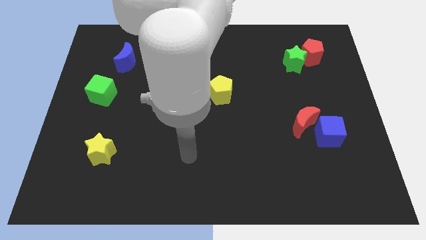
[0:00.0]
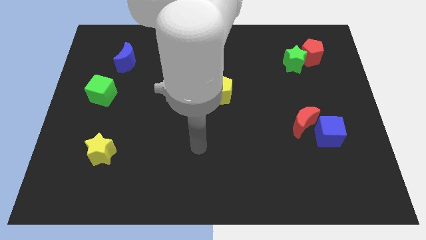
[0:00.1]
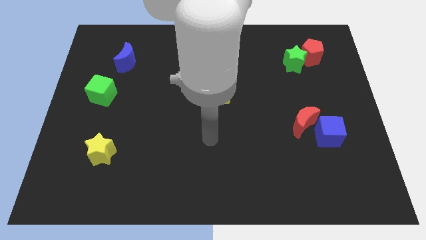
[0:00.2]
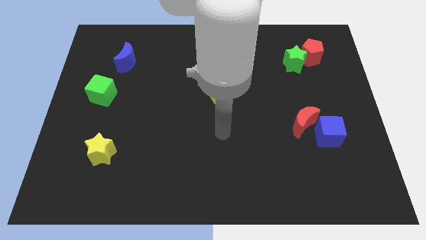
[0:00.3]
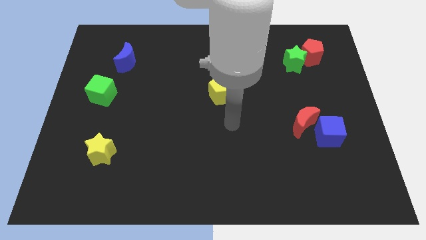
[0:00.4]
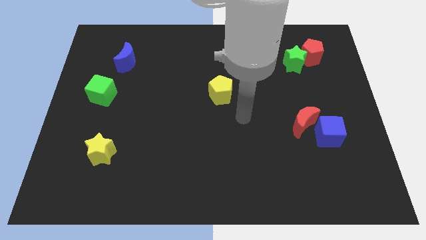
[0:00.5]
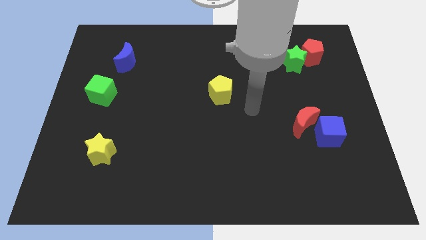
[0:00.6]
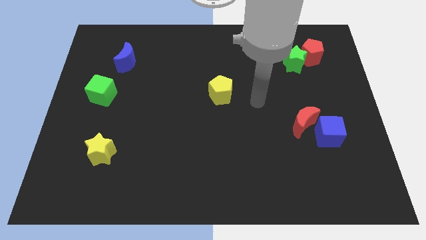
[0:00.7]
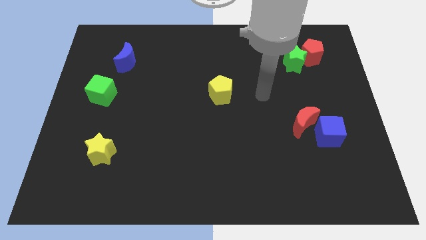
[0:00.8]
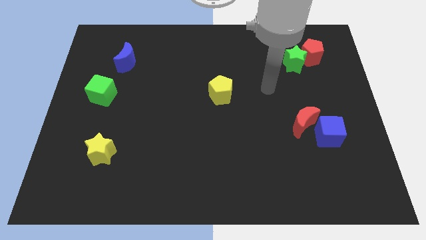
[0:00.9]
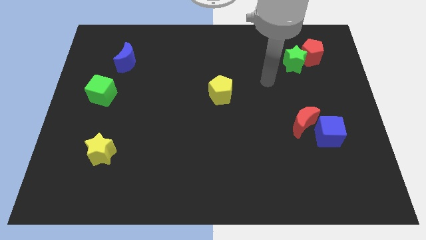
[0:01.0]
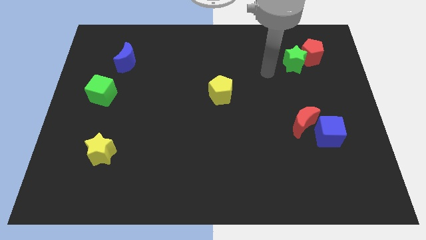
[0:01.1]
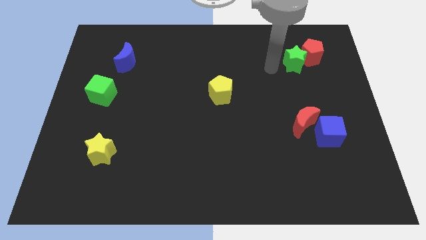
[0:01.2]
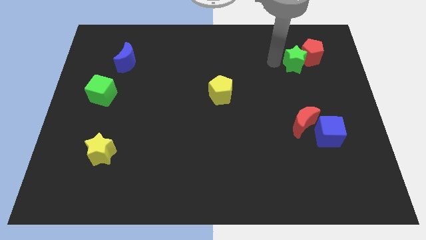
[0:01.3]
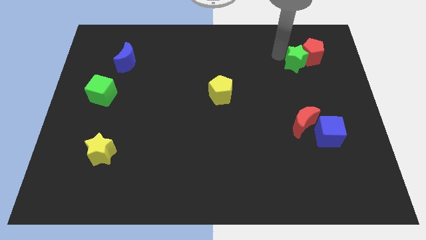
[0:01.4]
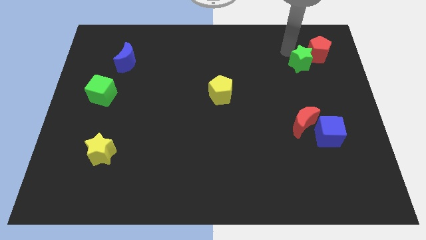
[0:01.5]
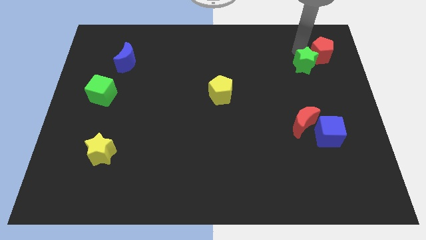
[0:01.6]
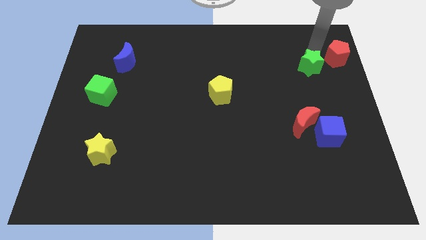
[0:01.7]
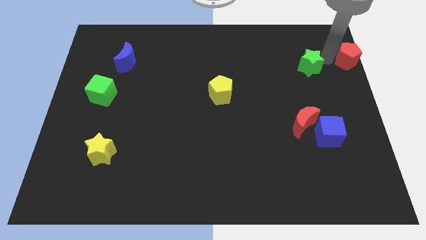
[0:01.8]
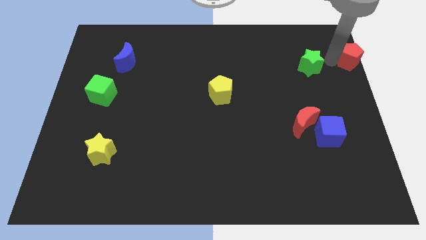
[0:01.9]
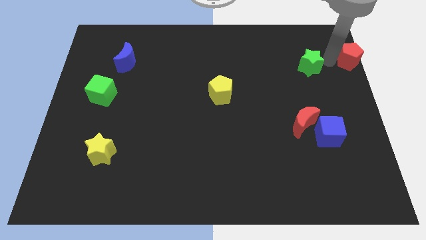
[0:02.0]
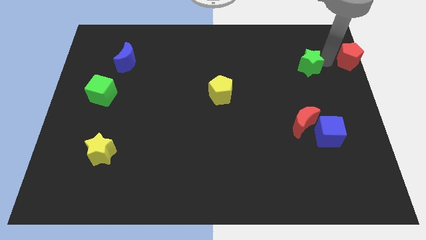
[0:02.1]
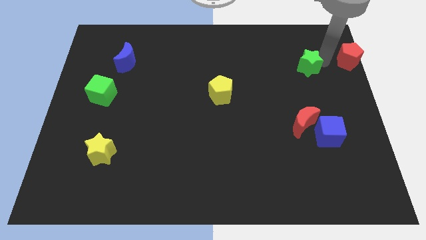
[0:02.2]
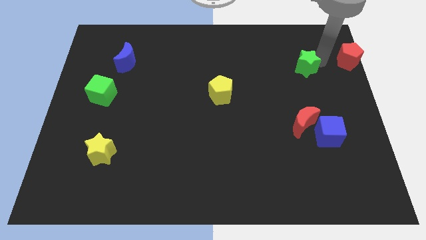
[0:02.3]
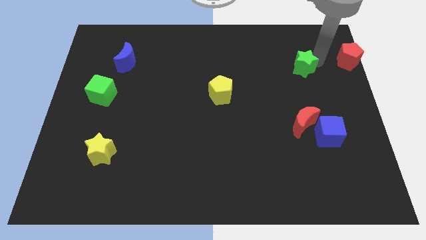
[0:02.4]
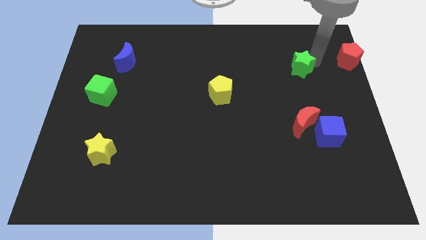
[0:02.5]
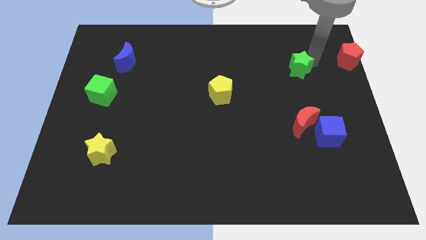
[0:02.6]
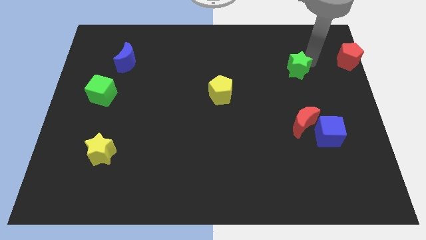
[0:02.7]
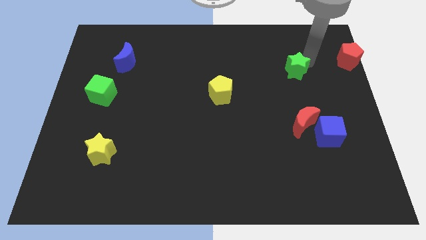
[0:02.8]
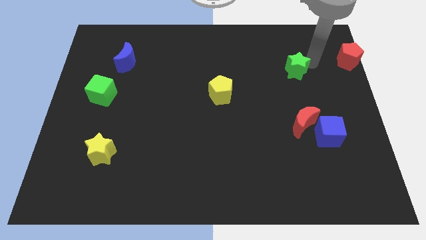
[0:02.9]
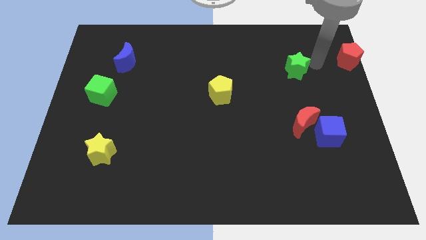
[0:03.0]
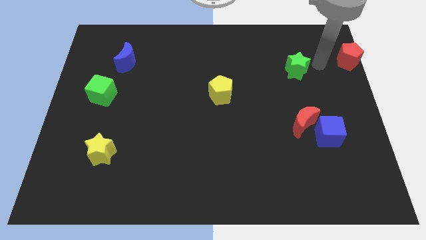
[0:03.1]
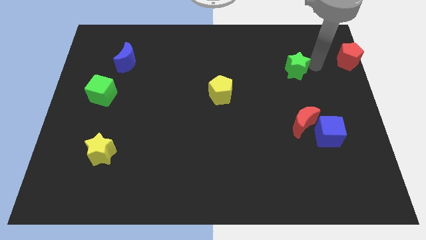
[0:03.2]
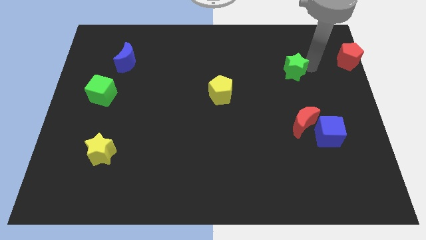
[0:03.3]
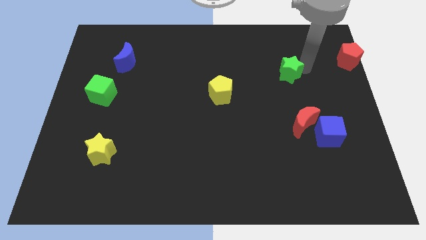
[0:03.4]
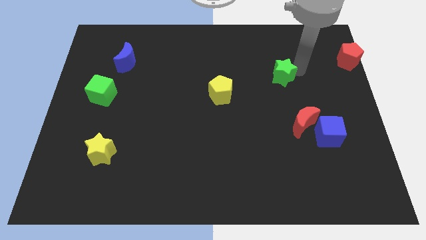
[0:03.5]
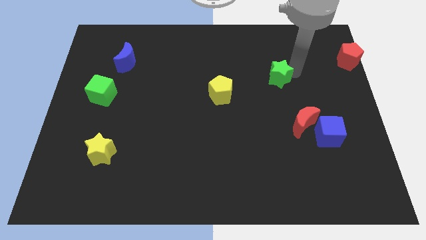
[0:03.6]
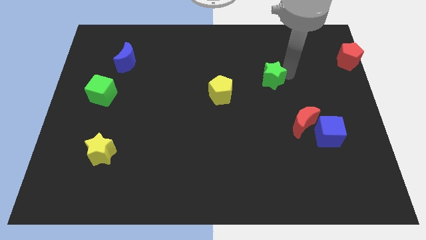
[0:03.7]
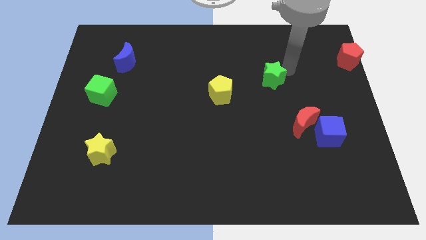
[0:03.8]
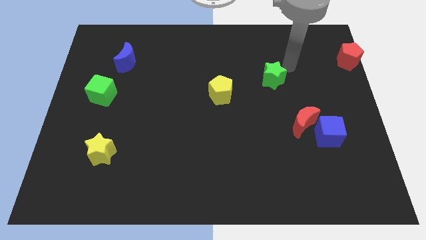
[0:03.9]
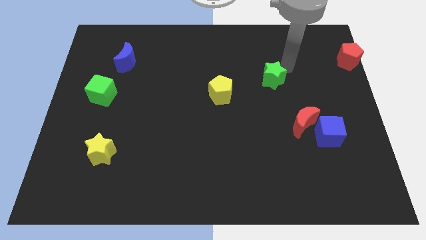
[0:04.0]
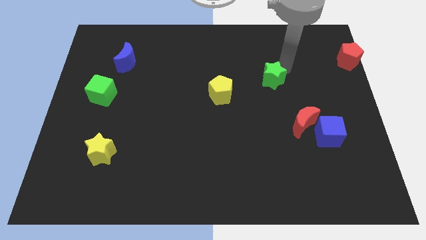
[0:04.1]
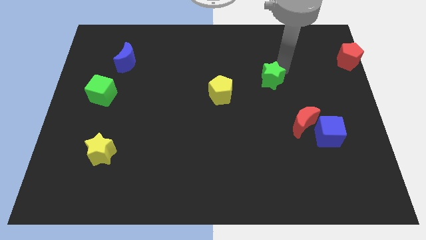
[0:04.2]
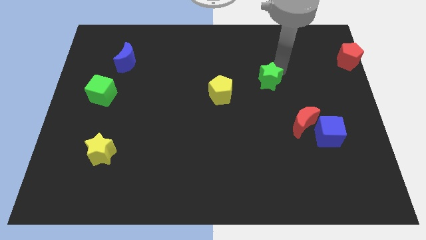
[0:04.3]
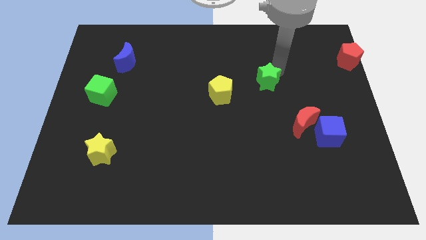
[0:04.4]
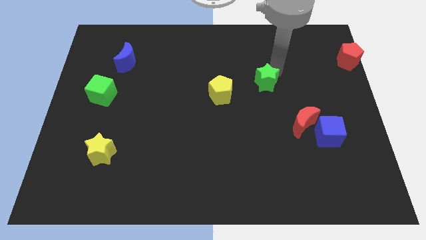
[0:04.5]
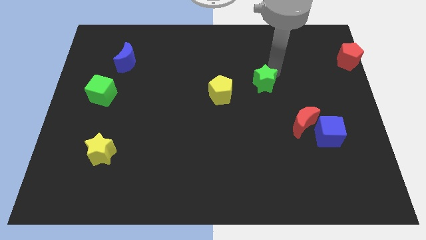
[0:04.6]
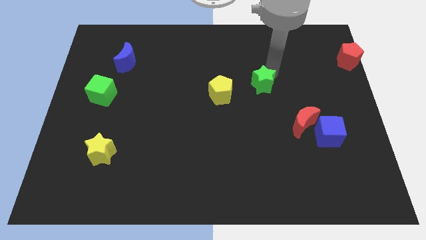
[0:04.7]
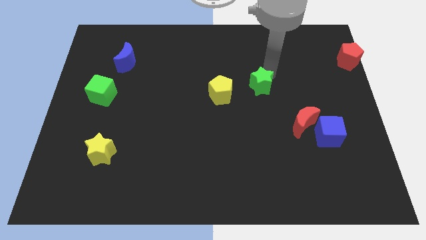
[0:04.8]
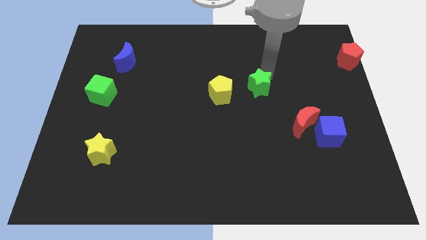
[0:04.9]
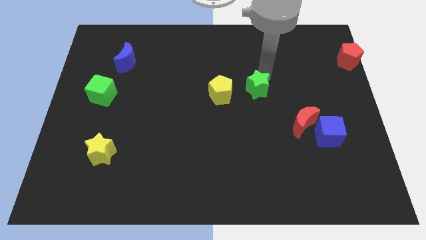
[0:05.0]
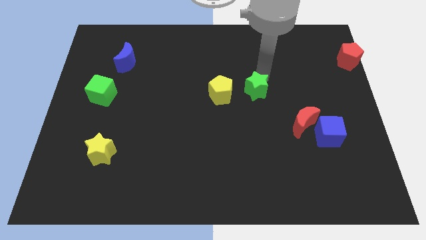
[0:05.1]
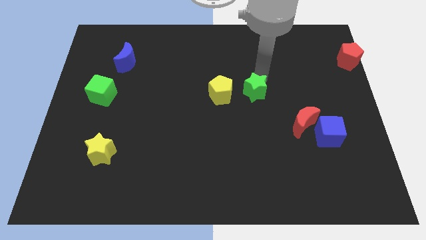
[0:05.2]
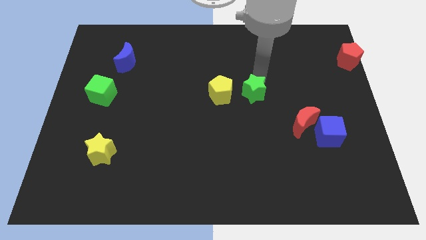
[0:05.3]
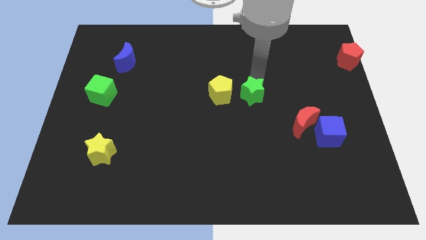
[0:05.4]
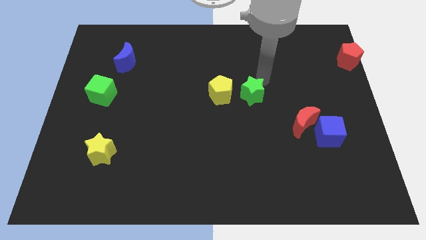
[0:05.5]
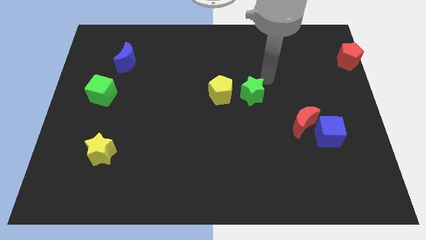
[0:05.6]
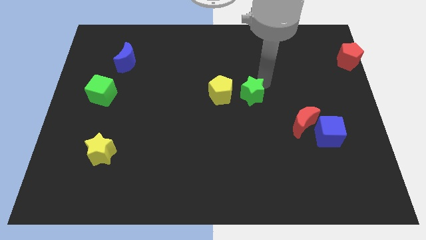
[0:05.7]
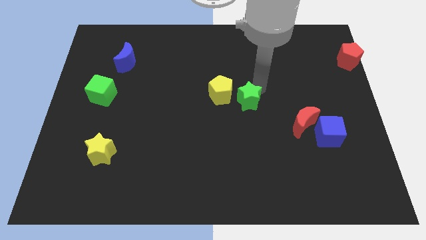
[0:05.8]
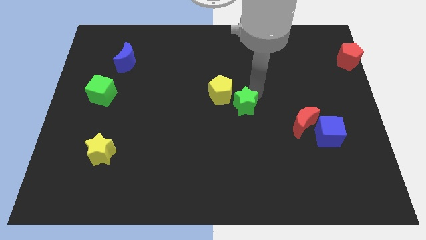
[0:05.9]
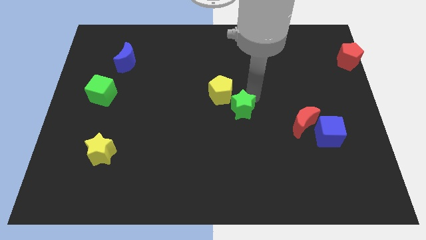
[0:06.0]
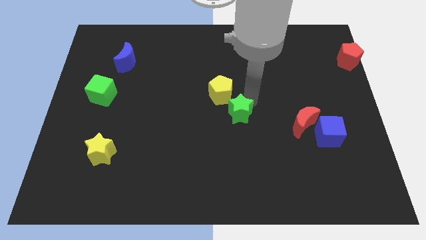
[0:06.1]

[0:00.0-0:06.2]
slide the green star to the bottom of the yellow pentagon
